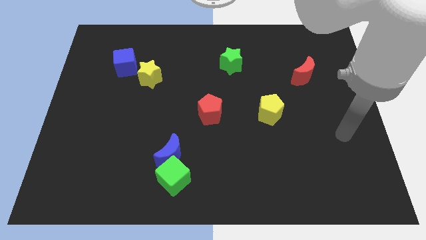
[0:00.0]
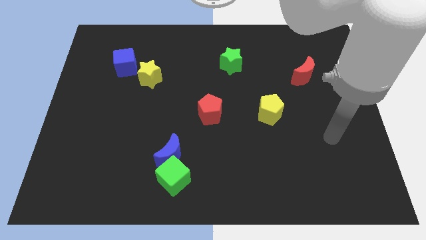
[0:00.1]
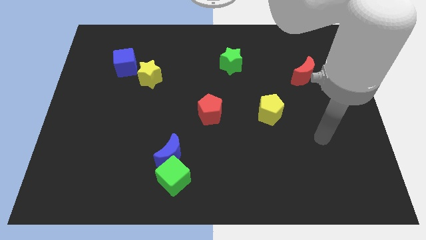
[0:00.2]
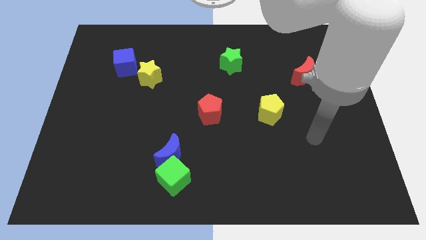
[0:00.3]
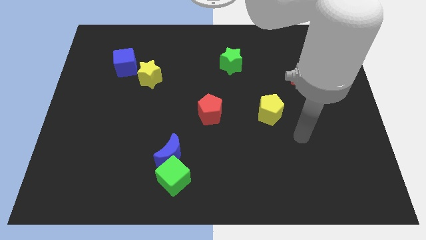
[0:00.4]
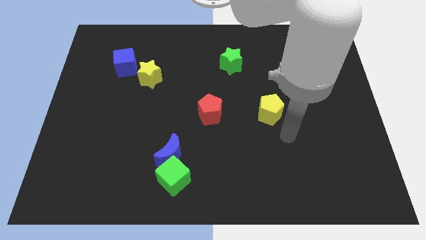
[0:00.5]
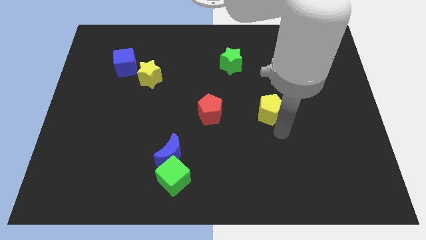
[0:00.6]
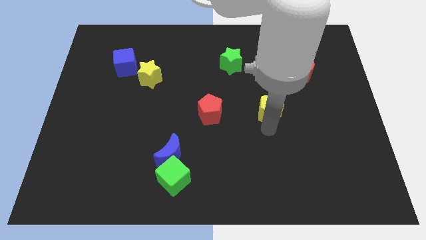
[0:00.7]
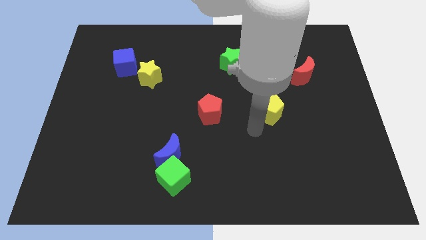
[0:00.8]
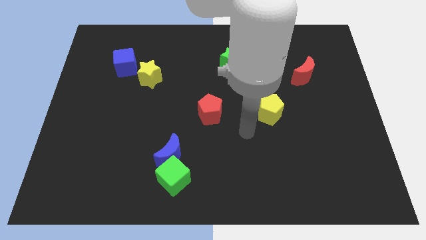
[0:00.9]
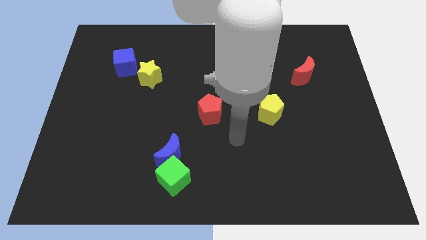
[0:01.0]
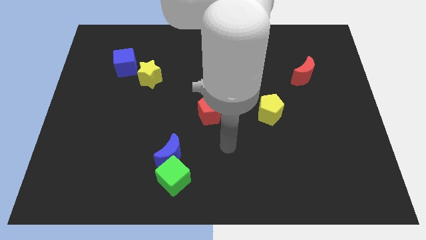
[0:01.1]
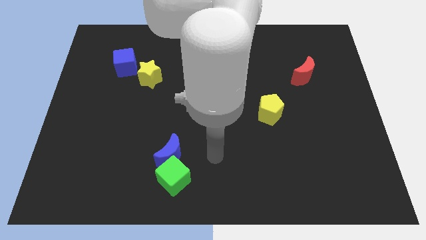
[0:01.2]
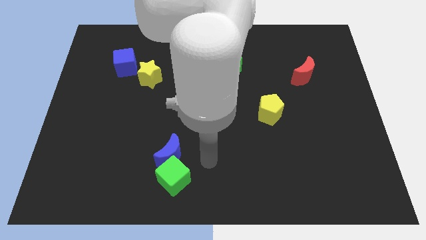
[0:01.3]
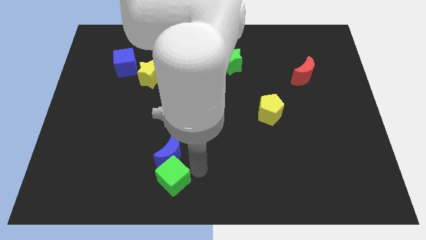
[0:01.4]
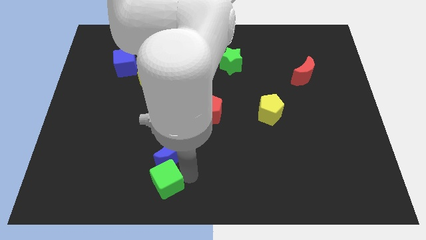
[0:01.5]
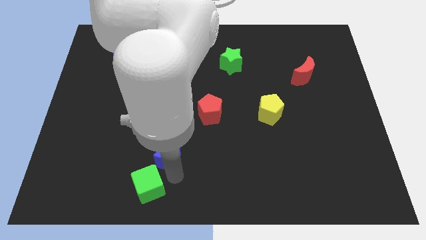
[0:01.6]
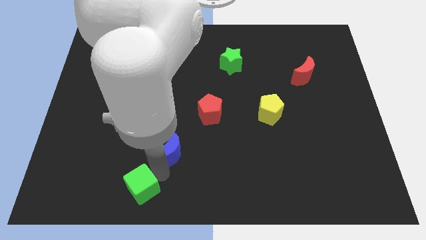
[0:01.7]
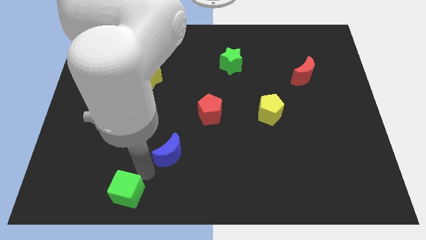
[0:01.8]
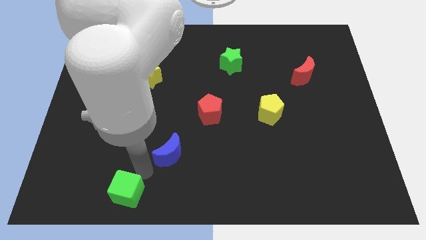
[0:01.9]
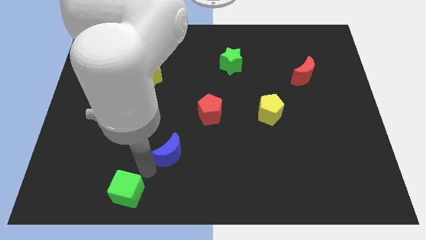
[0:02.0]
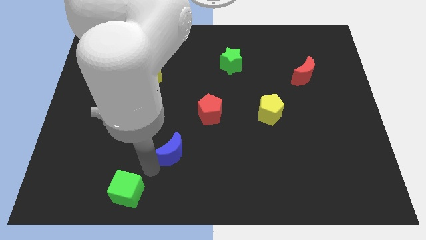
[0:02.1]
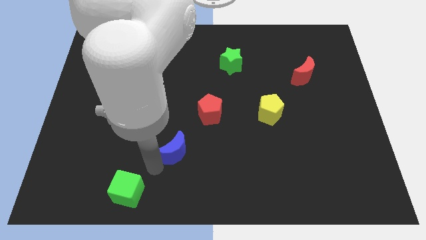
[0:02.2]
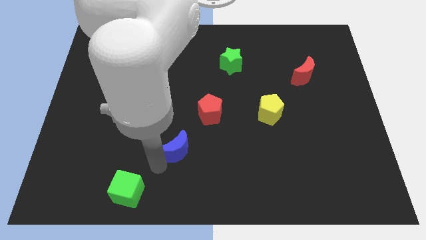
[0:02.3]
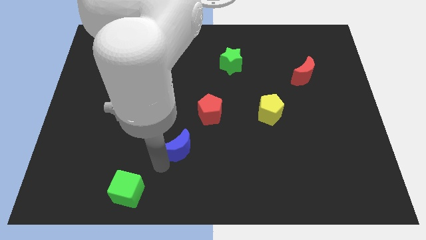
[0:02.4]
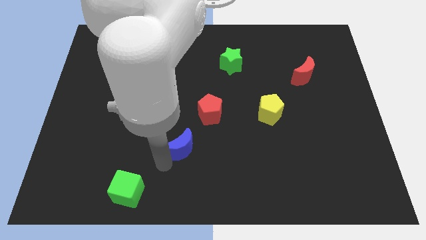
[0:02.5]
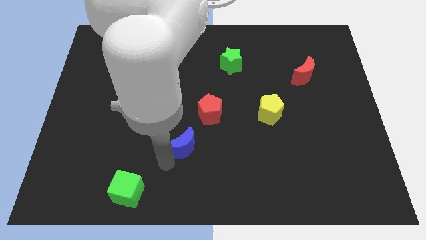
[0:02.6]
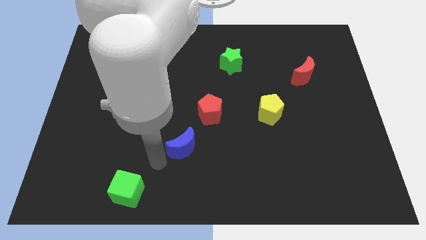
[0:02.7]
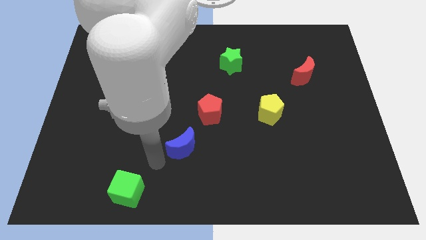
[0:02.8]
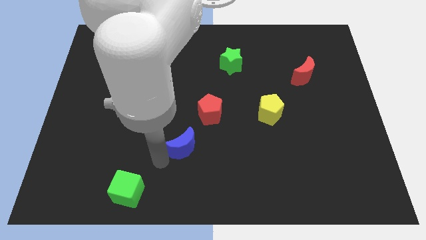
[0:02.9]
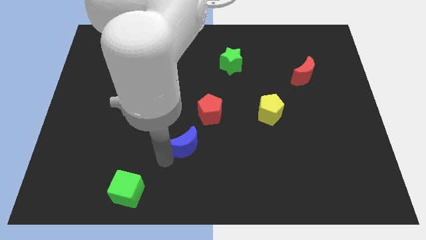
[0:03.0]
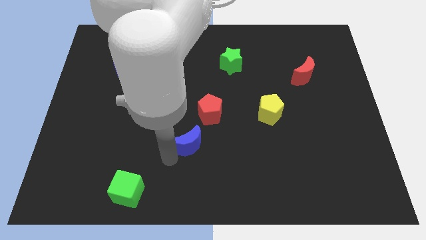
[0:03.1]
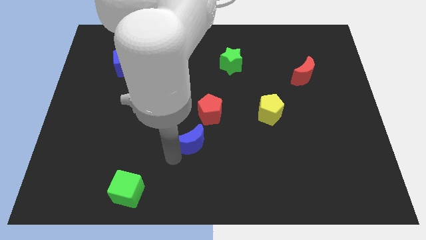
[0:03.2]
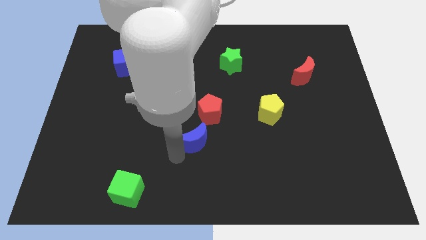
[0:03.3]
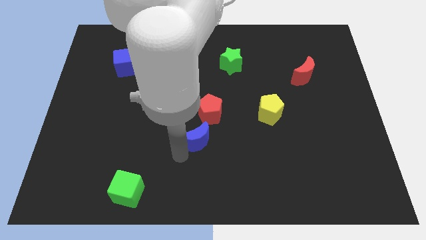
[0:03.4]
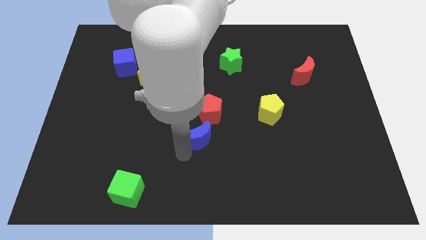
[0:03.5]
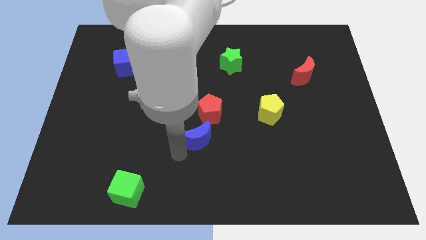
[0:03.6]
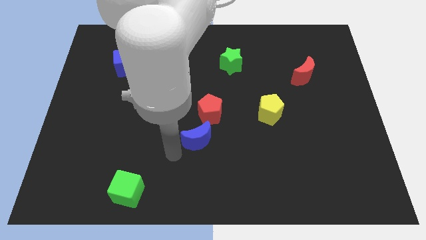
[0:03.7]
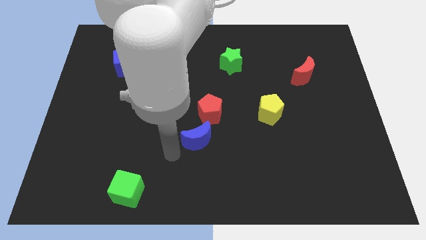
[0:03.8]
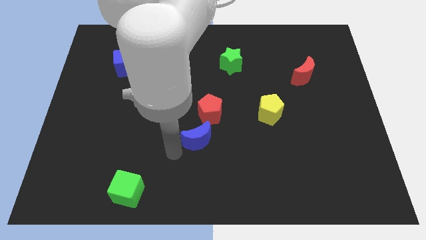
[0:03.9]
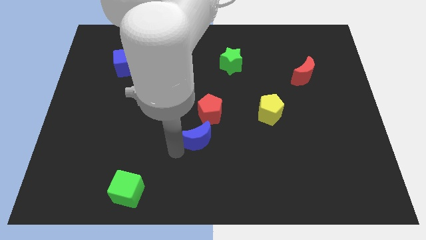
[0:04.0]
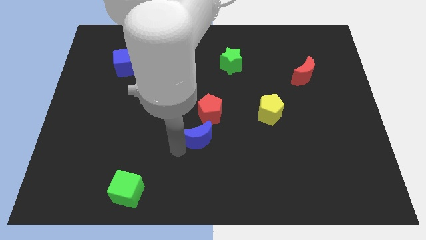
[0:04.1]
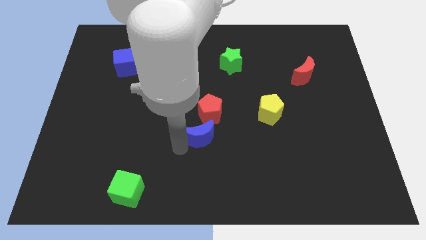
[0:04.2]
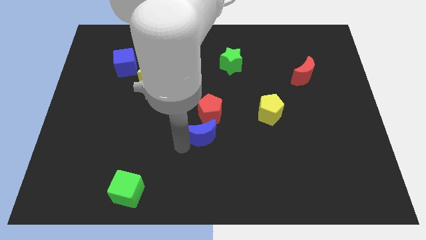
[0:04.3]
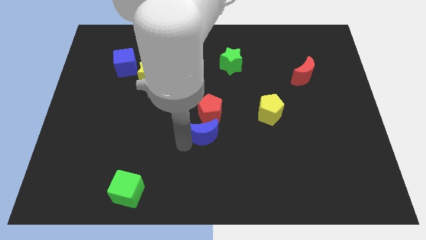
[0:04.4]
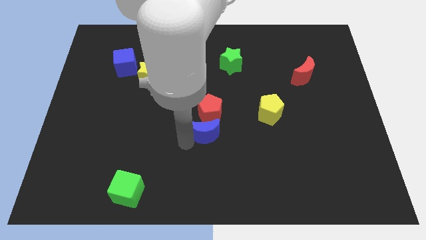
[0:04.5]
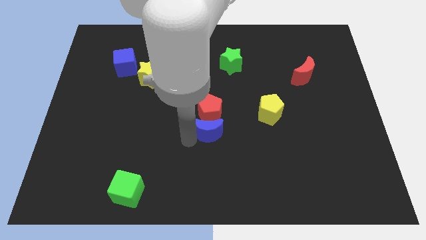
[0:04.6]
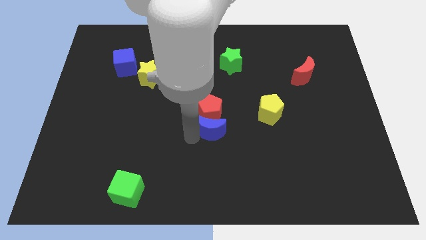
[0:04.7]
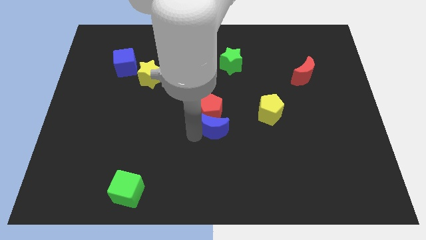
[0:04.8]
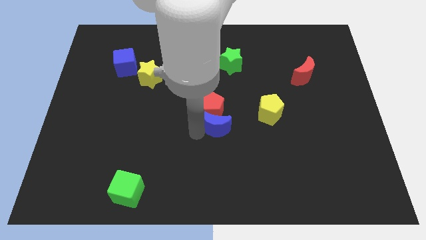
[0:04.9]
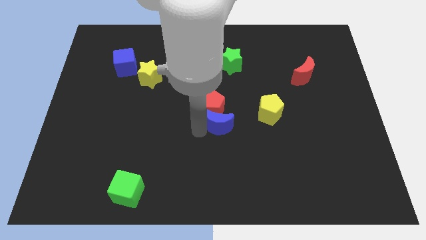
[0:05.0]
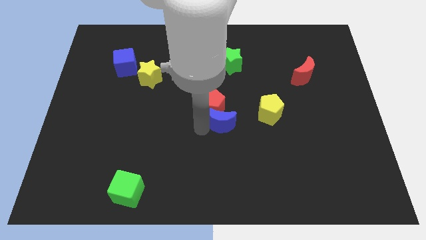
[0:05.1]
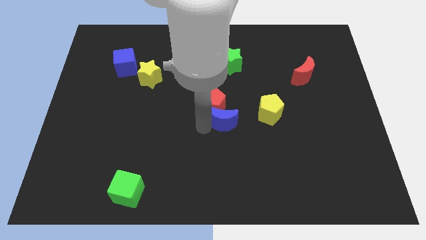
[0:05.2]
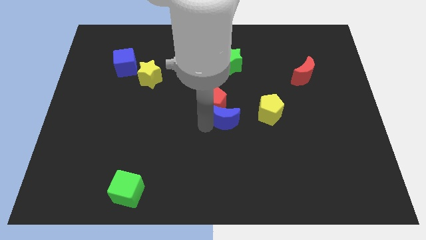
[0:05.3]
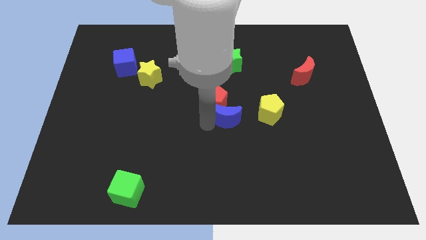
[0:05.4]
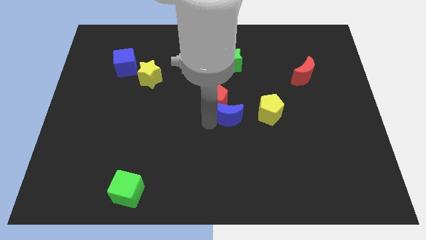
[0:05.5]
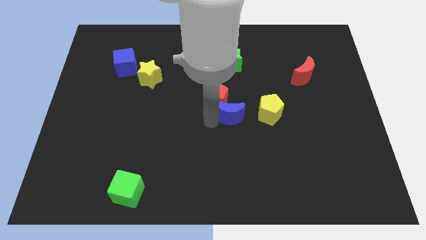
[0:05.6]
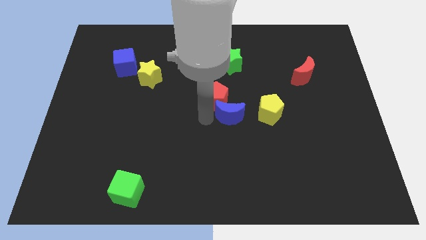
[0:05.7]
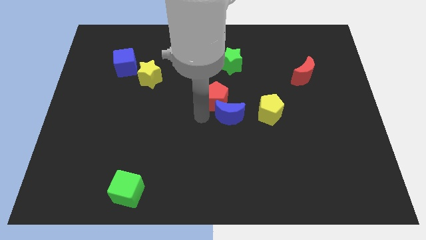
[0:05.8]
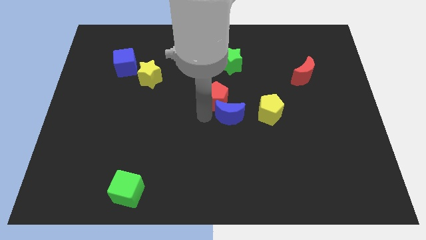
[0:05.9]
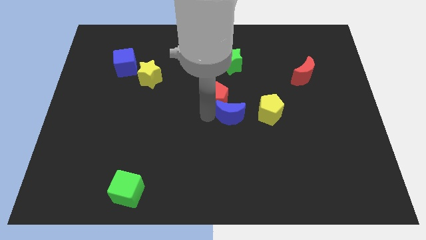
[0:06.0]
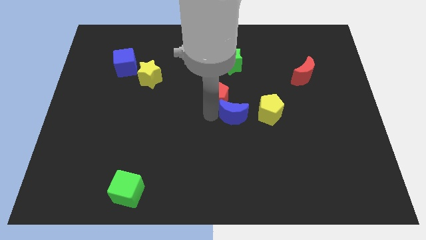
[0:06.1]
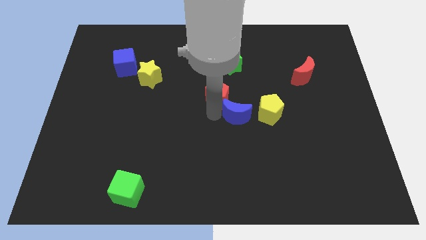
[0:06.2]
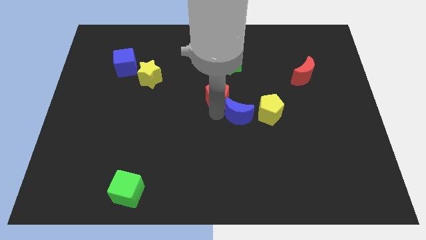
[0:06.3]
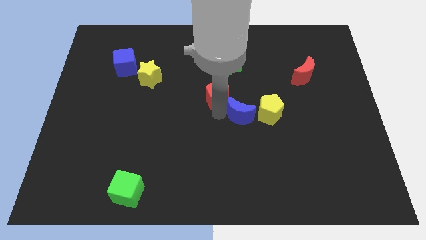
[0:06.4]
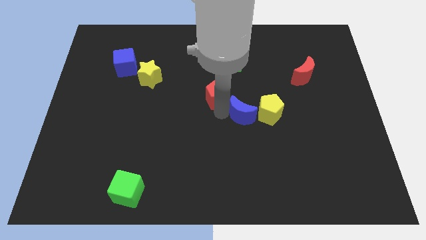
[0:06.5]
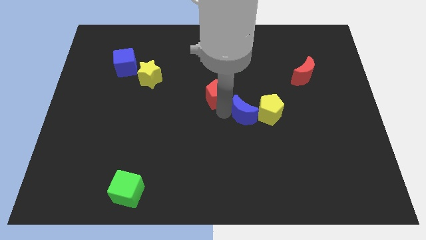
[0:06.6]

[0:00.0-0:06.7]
put the blue moon towards the yellow pentagon

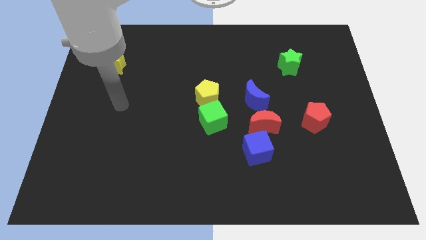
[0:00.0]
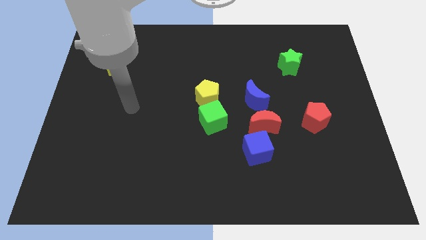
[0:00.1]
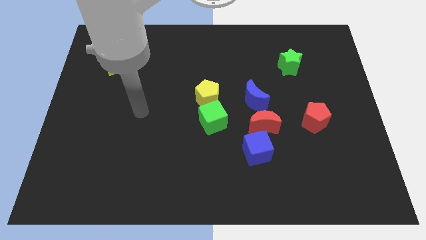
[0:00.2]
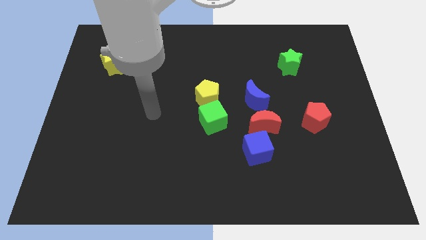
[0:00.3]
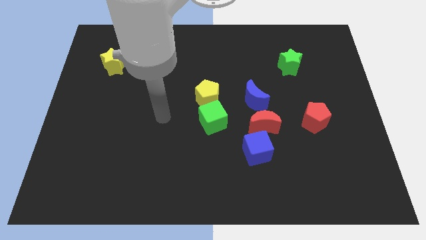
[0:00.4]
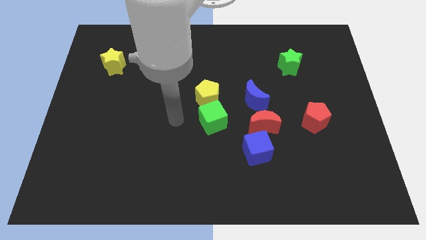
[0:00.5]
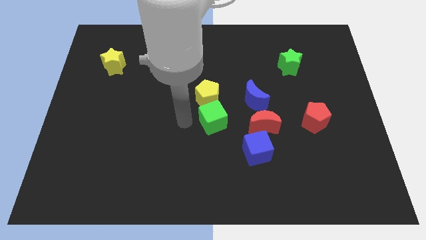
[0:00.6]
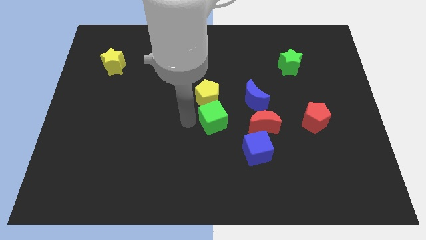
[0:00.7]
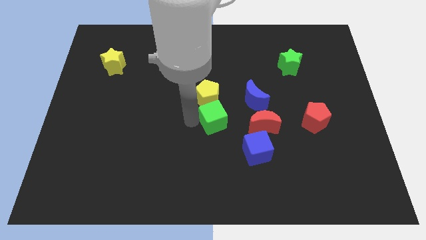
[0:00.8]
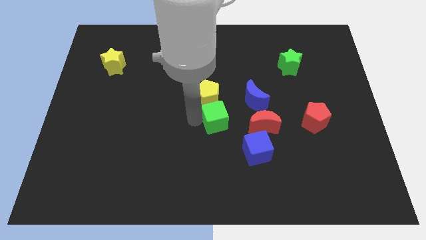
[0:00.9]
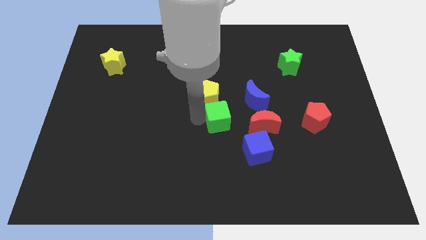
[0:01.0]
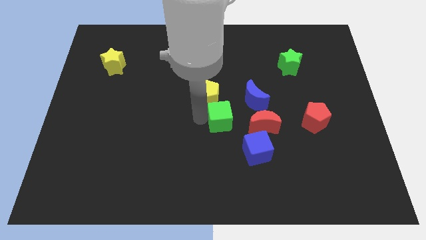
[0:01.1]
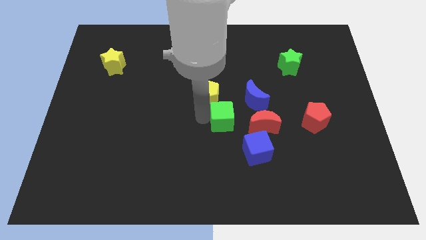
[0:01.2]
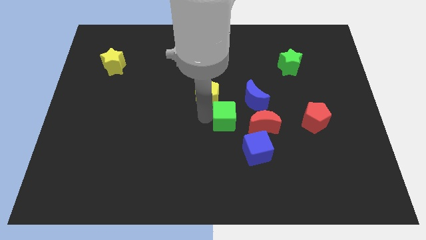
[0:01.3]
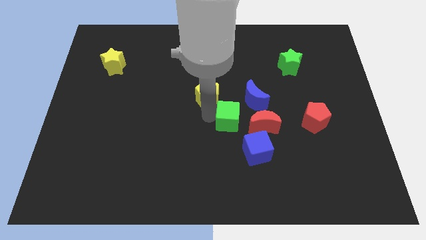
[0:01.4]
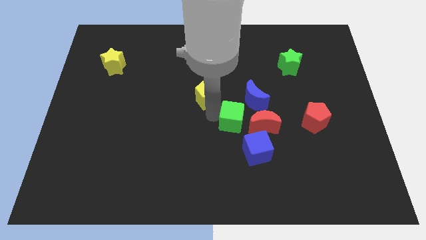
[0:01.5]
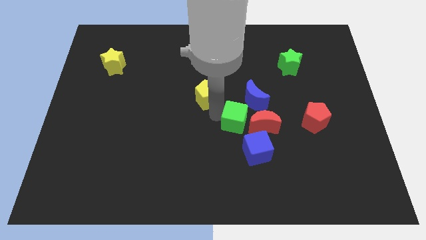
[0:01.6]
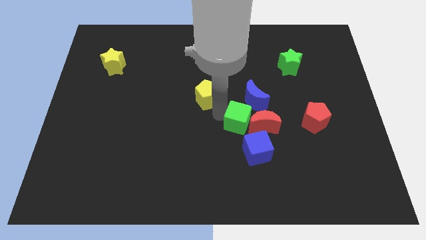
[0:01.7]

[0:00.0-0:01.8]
move the green cube next to the red moon
